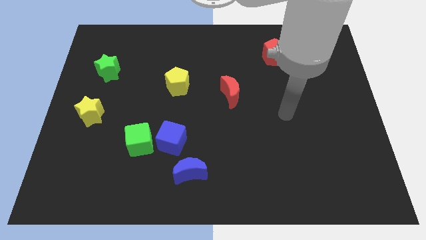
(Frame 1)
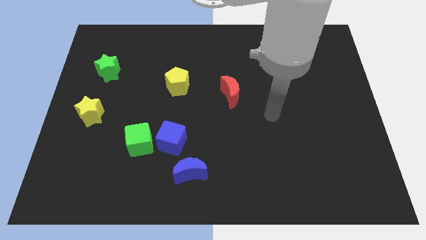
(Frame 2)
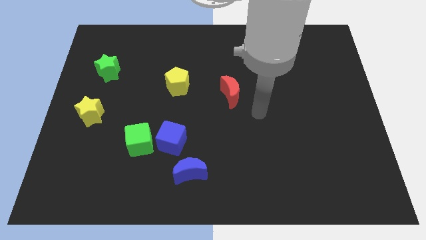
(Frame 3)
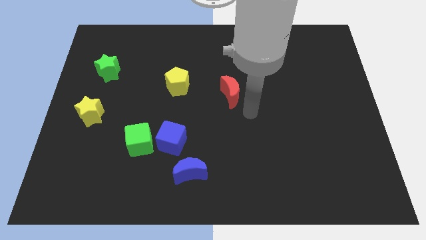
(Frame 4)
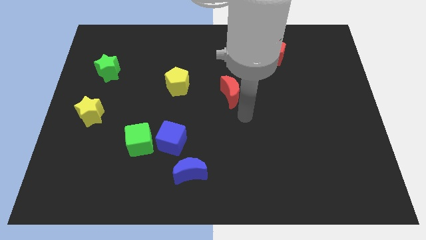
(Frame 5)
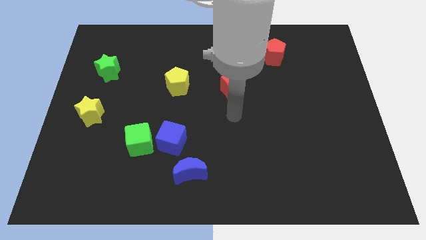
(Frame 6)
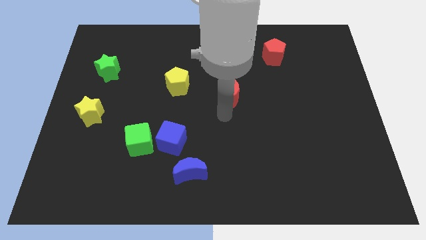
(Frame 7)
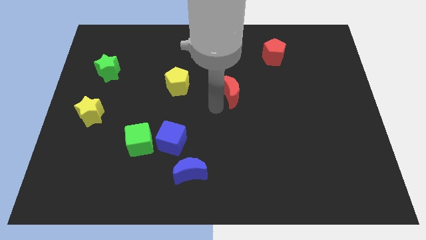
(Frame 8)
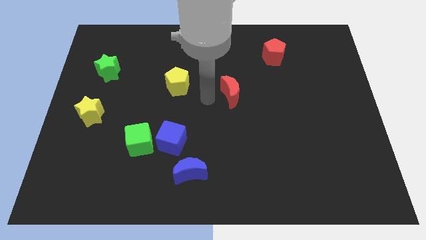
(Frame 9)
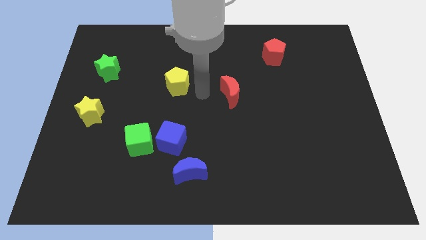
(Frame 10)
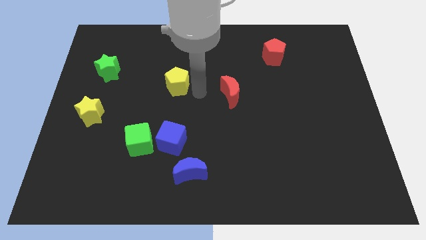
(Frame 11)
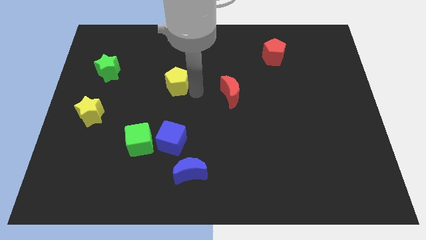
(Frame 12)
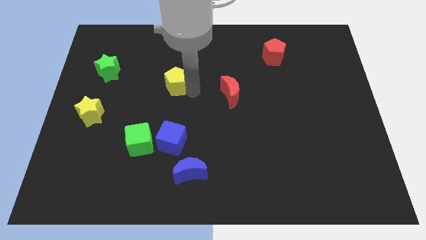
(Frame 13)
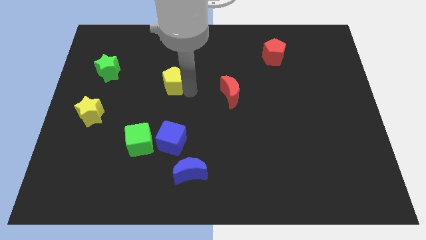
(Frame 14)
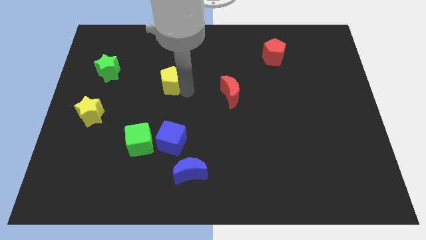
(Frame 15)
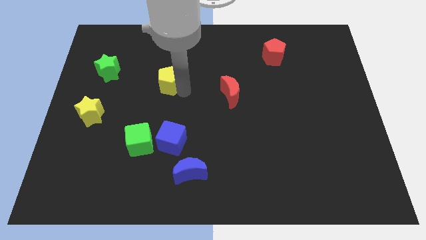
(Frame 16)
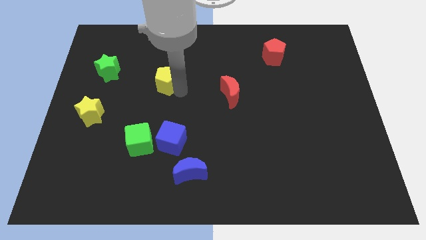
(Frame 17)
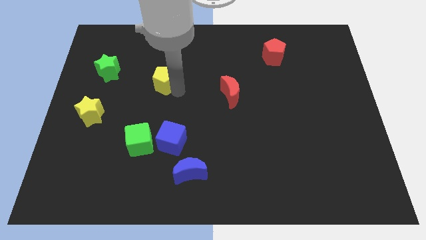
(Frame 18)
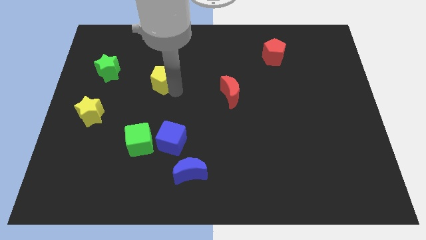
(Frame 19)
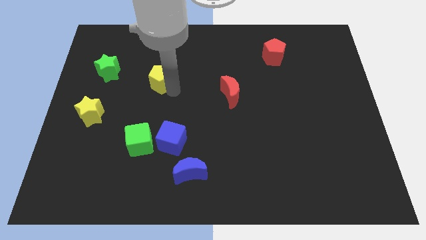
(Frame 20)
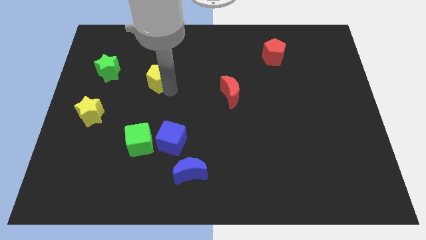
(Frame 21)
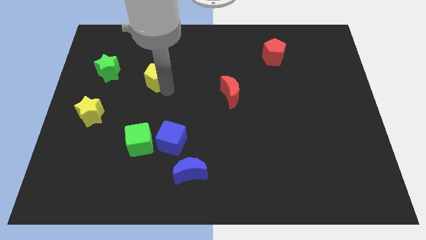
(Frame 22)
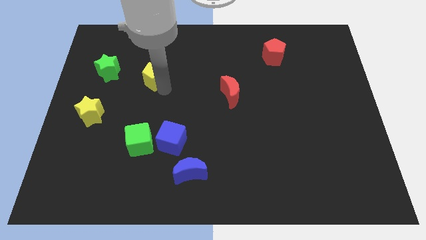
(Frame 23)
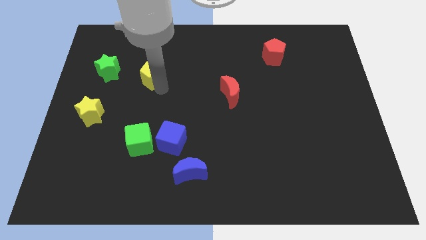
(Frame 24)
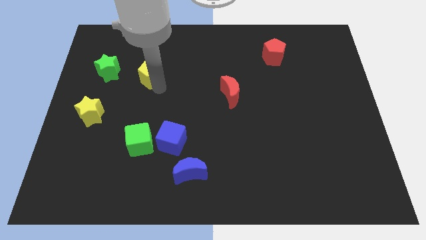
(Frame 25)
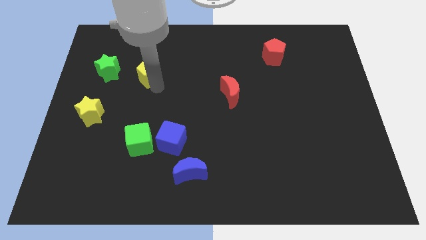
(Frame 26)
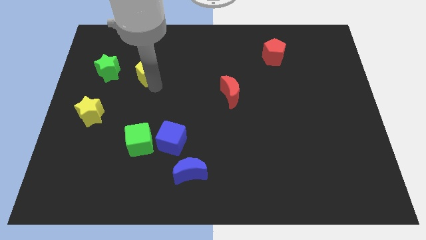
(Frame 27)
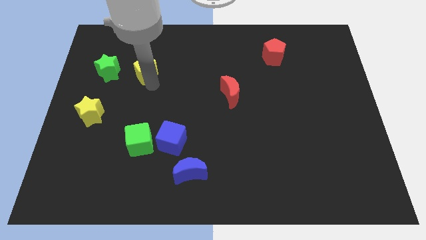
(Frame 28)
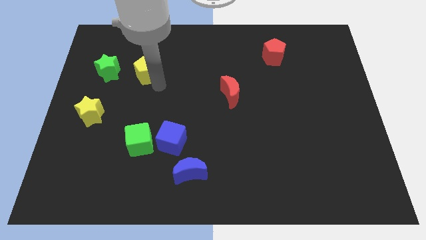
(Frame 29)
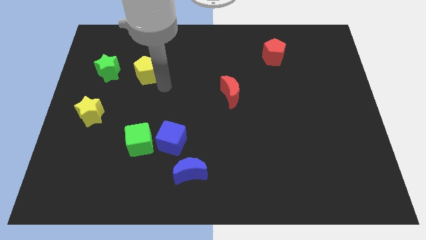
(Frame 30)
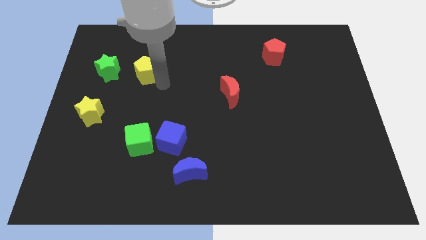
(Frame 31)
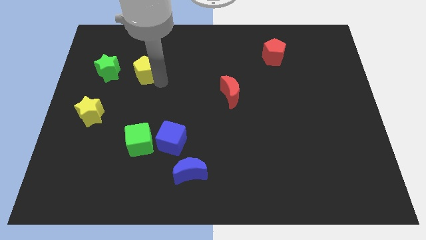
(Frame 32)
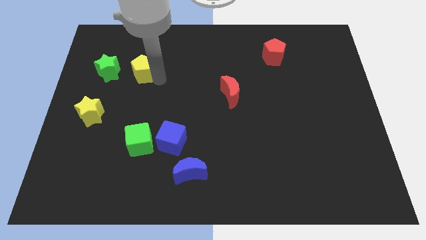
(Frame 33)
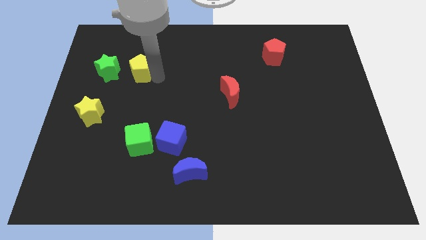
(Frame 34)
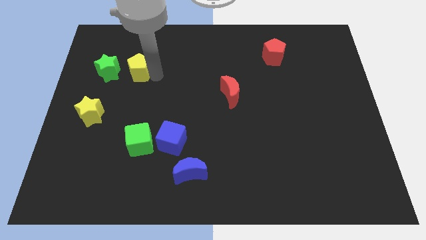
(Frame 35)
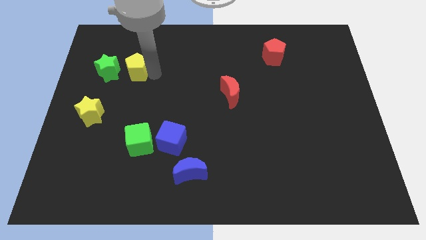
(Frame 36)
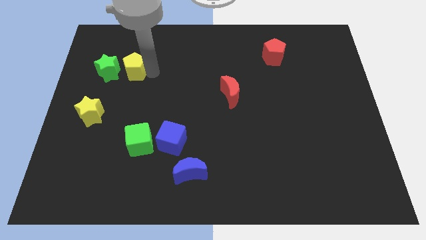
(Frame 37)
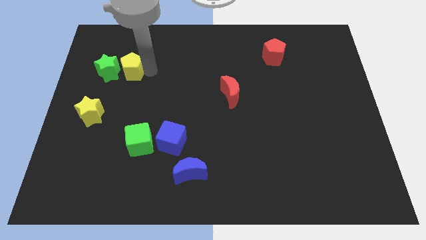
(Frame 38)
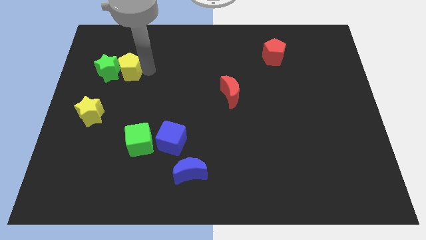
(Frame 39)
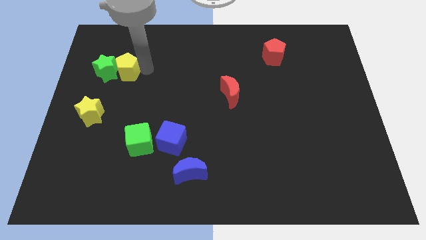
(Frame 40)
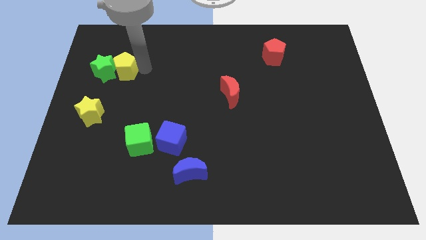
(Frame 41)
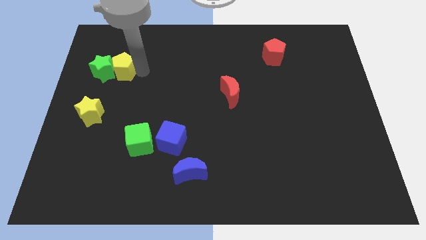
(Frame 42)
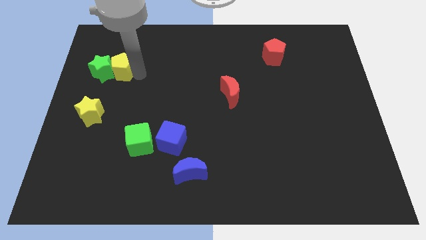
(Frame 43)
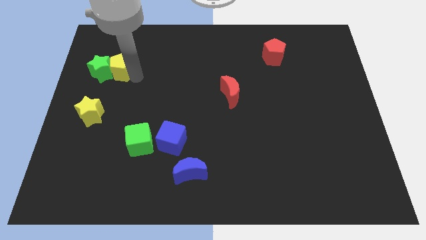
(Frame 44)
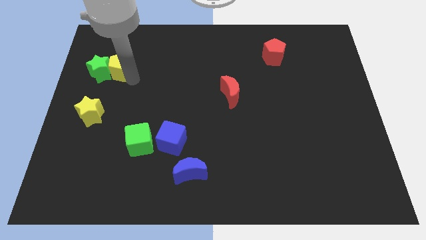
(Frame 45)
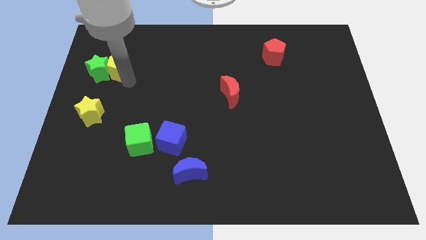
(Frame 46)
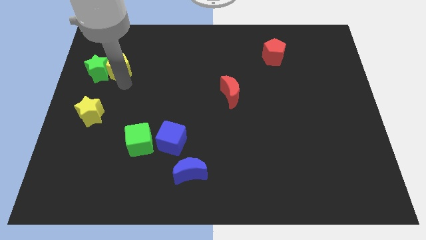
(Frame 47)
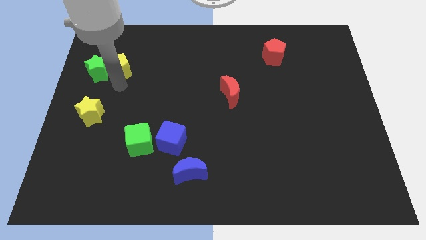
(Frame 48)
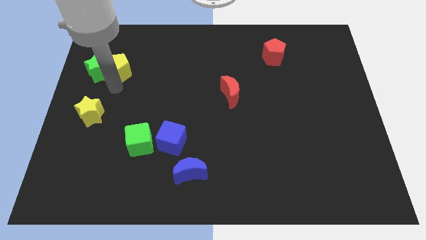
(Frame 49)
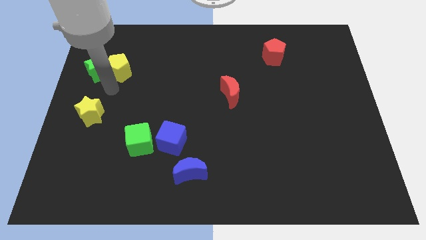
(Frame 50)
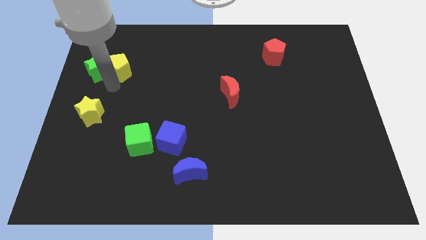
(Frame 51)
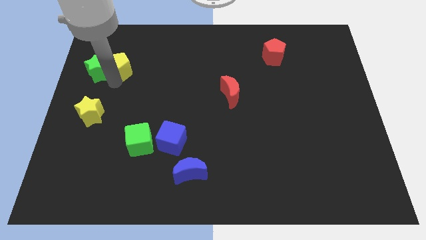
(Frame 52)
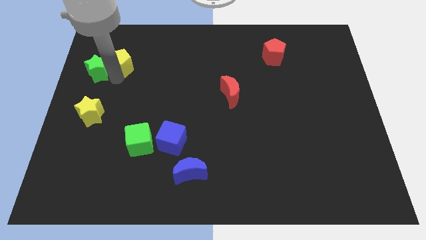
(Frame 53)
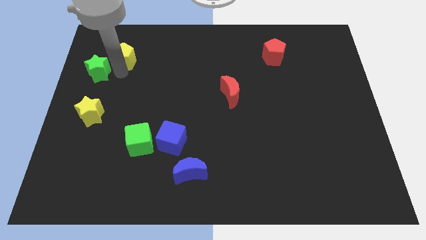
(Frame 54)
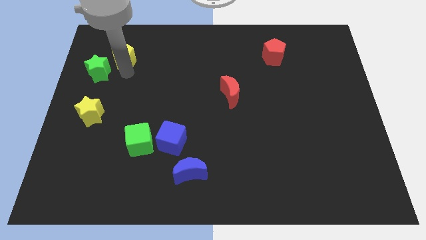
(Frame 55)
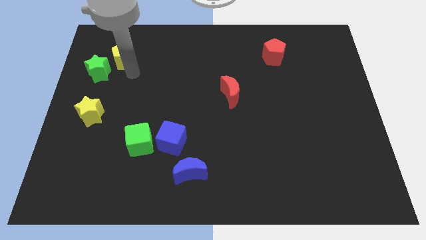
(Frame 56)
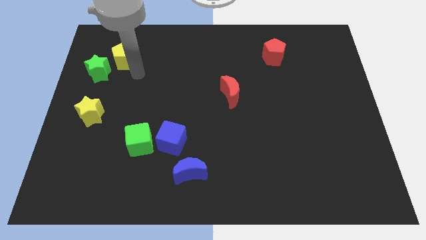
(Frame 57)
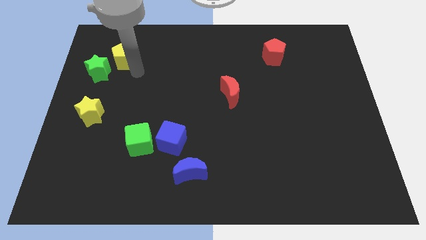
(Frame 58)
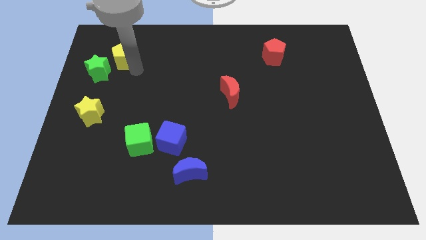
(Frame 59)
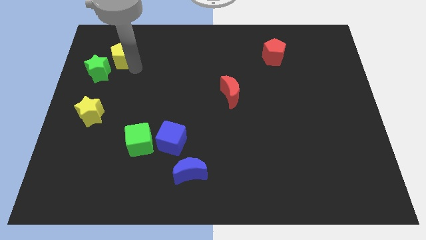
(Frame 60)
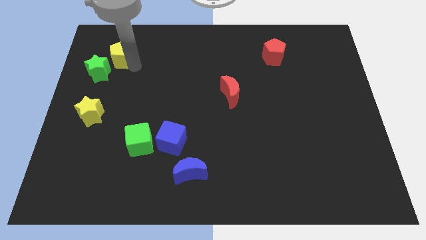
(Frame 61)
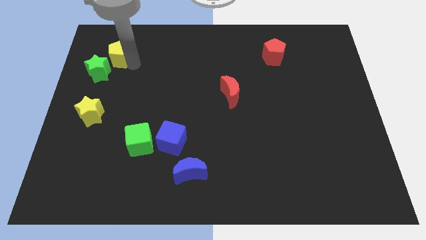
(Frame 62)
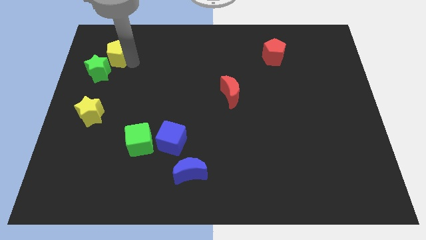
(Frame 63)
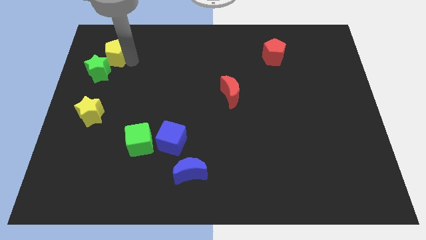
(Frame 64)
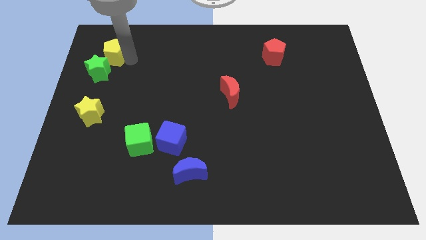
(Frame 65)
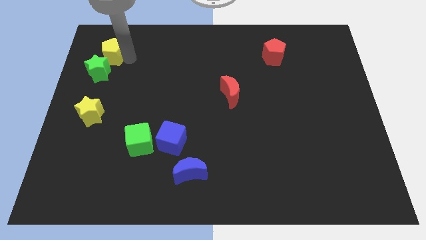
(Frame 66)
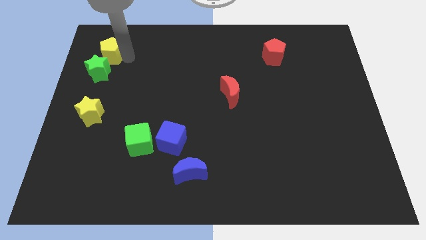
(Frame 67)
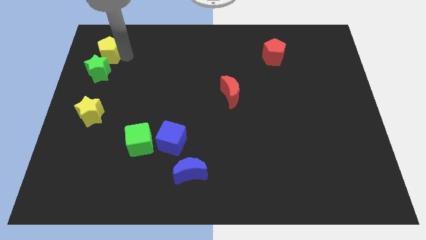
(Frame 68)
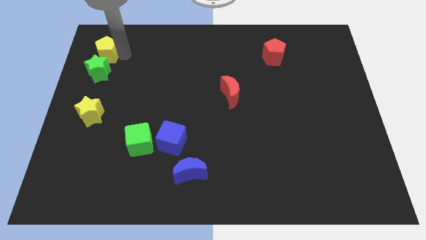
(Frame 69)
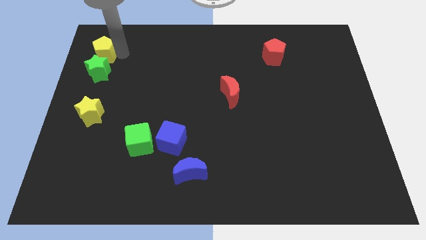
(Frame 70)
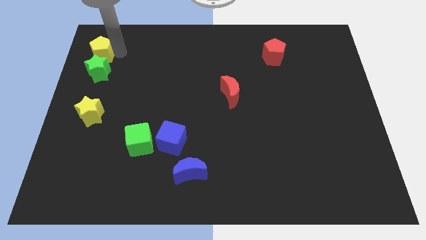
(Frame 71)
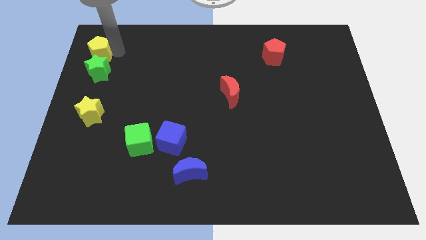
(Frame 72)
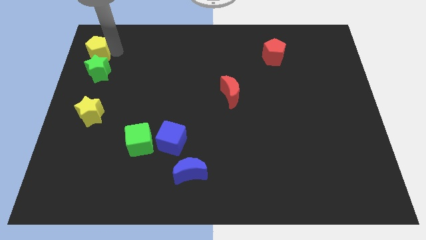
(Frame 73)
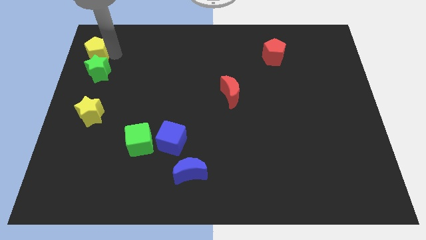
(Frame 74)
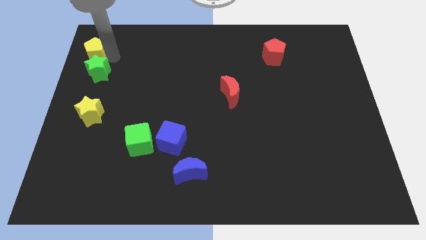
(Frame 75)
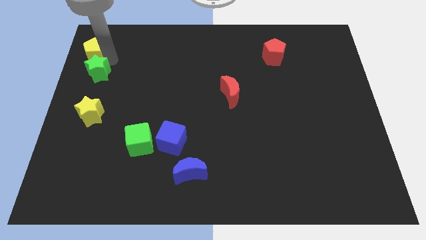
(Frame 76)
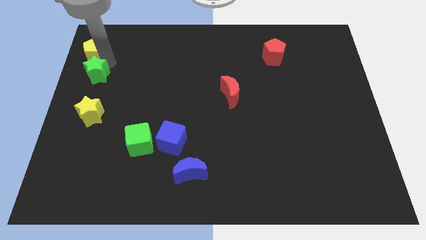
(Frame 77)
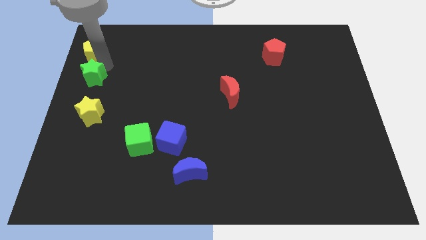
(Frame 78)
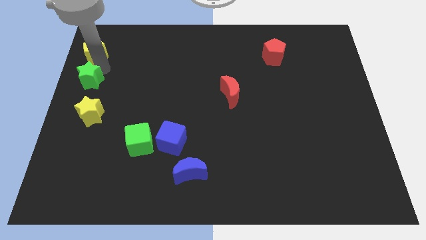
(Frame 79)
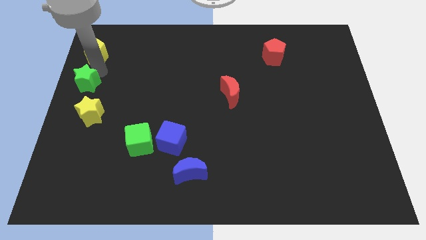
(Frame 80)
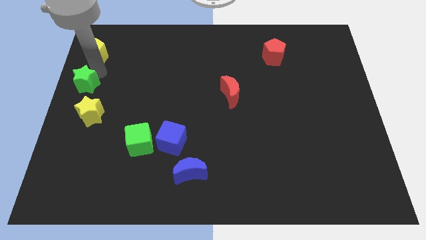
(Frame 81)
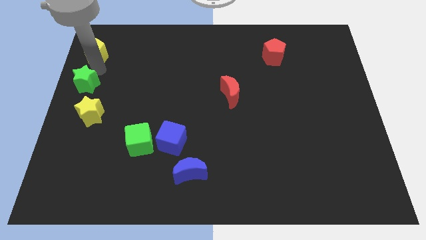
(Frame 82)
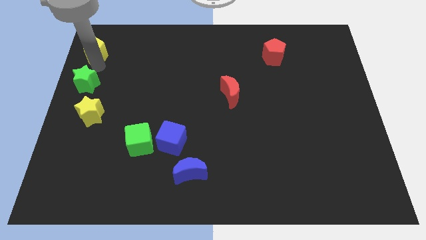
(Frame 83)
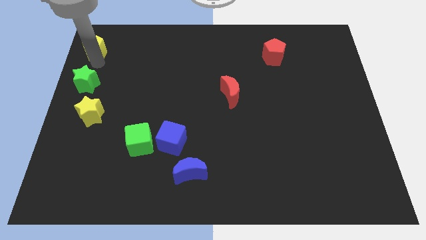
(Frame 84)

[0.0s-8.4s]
push the yellow pentagon to the upper left corner
